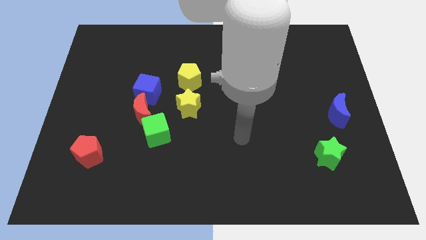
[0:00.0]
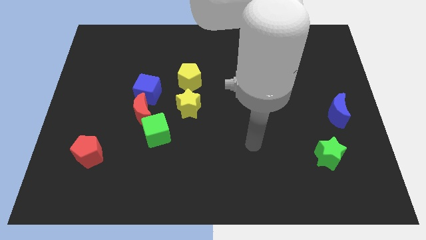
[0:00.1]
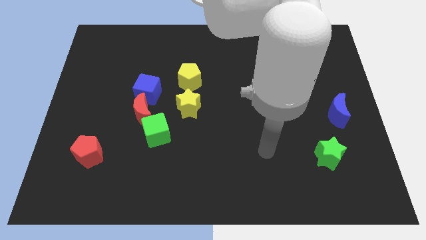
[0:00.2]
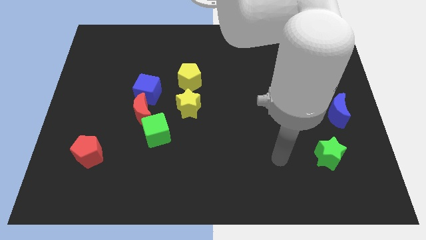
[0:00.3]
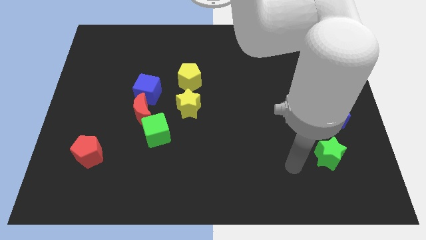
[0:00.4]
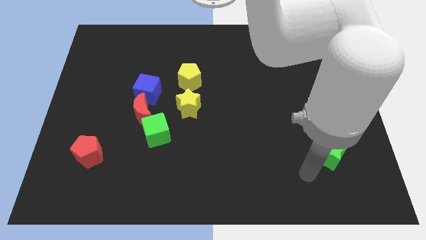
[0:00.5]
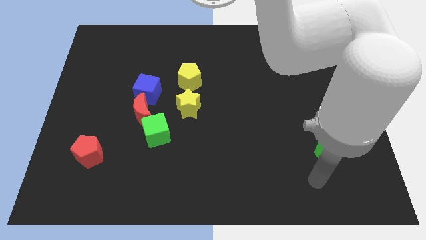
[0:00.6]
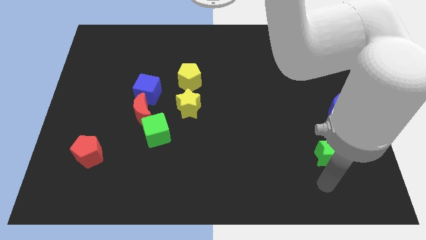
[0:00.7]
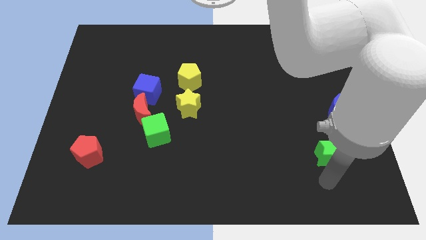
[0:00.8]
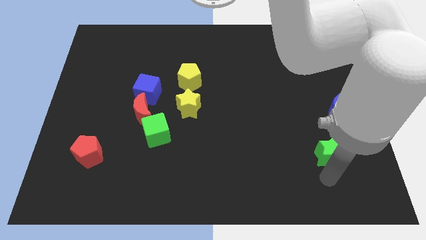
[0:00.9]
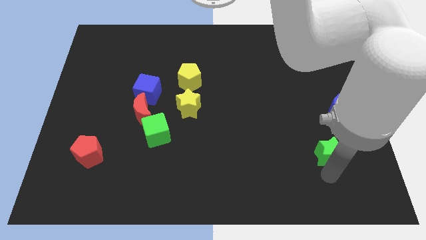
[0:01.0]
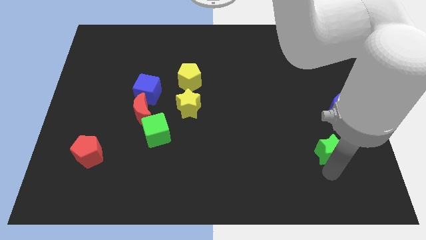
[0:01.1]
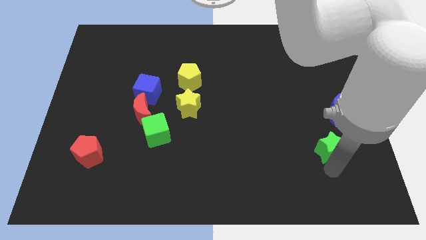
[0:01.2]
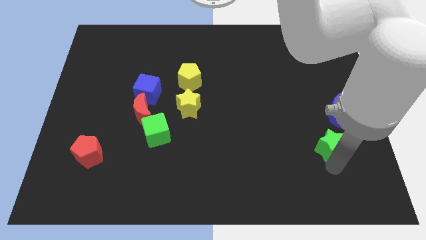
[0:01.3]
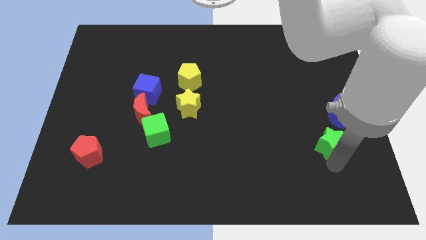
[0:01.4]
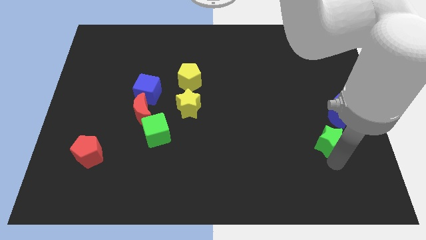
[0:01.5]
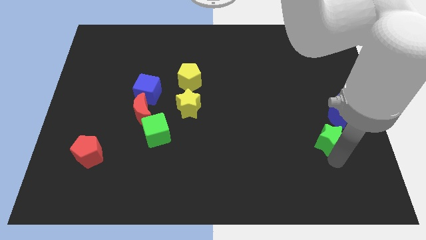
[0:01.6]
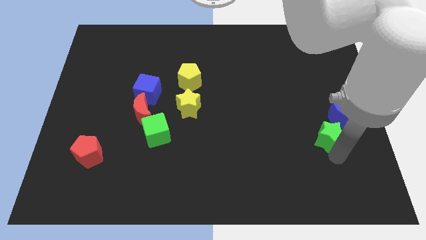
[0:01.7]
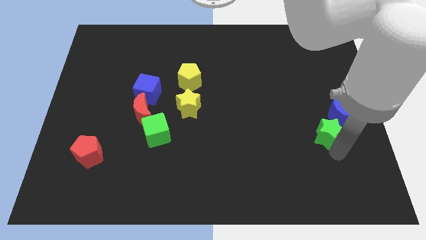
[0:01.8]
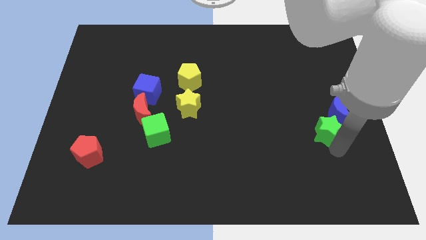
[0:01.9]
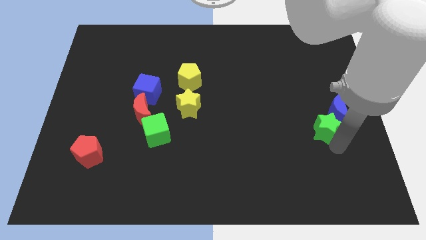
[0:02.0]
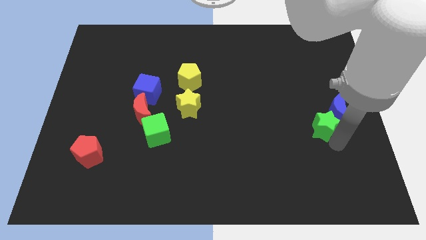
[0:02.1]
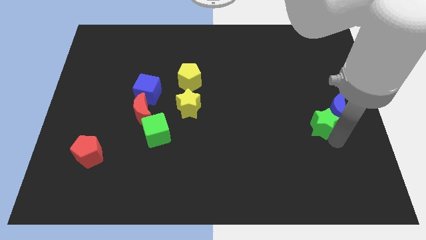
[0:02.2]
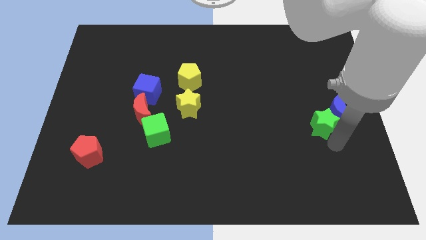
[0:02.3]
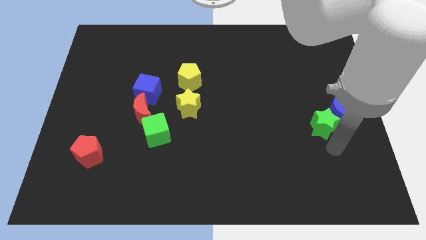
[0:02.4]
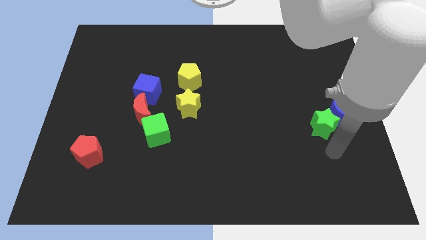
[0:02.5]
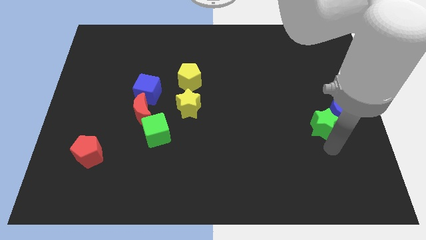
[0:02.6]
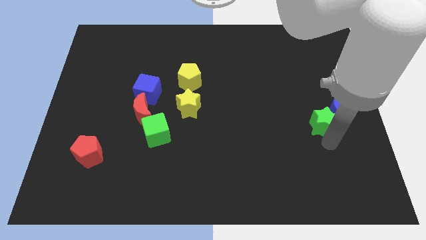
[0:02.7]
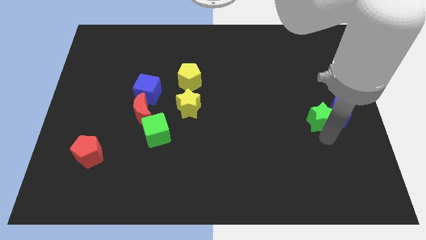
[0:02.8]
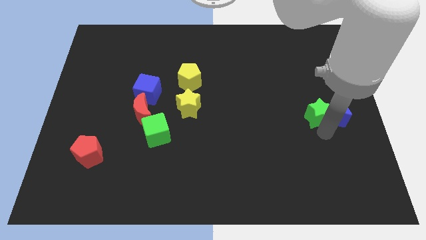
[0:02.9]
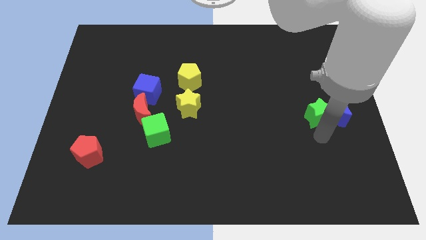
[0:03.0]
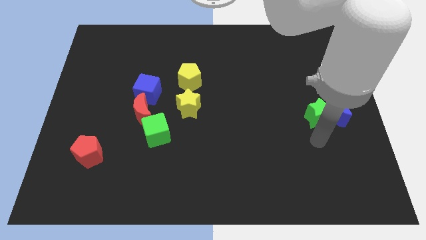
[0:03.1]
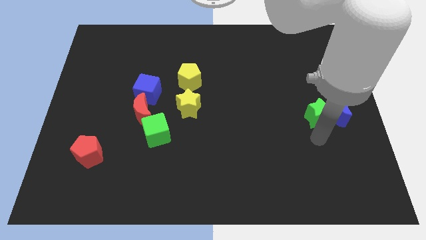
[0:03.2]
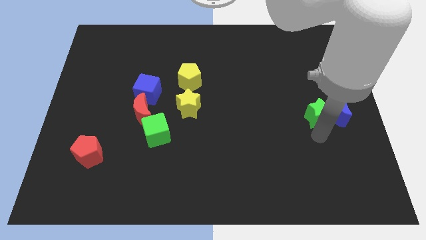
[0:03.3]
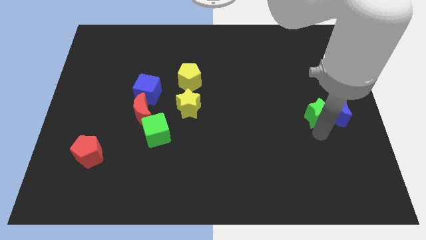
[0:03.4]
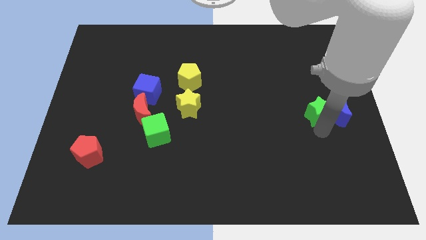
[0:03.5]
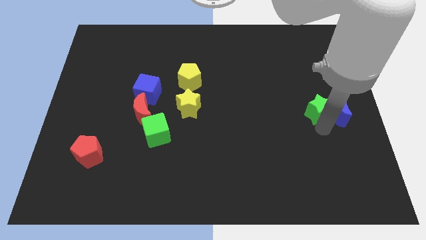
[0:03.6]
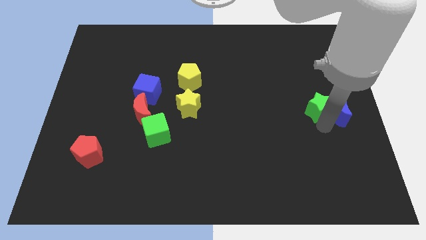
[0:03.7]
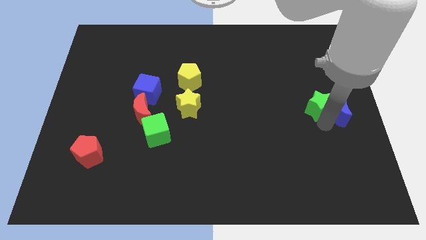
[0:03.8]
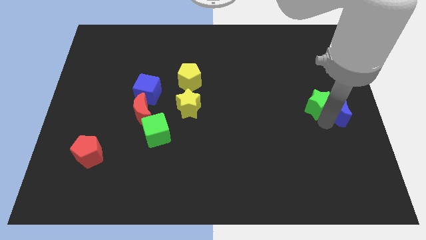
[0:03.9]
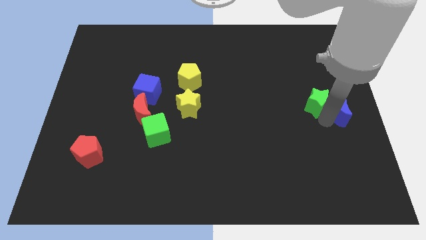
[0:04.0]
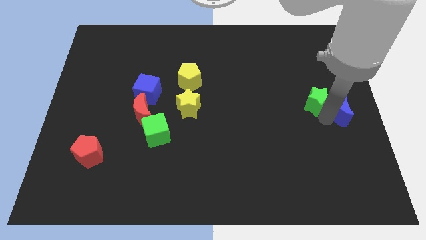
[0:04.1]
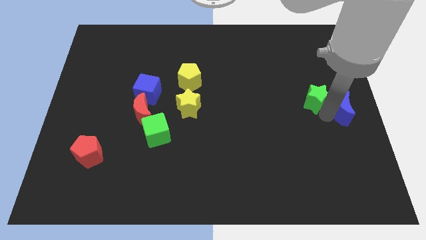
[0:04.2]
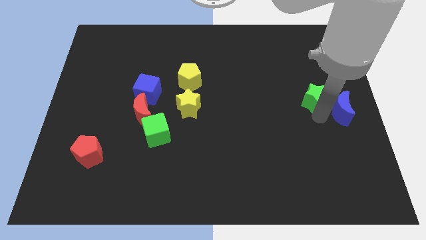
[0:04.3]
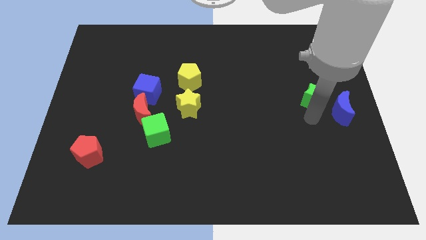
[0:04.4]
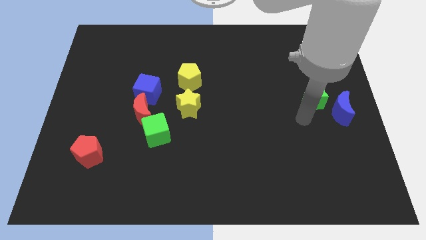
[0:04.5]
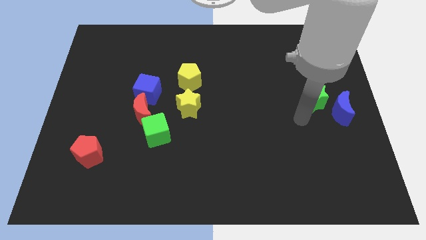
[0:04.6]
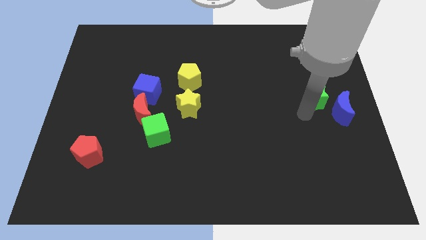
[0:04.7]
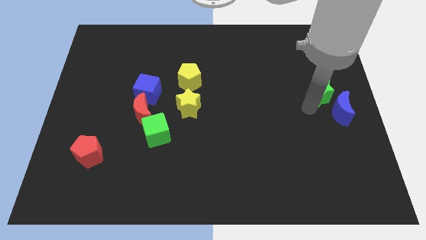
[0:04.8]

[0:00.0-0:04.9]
put the green star above the blue moon

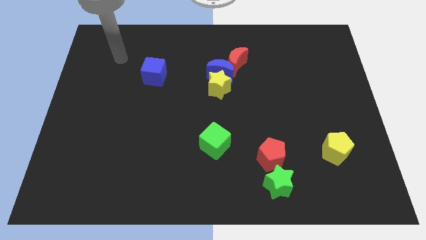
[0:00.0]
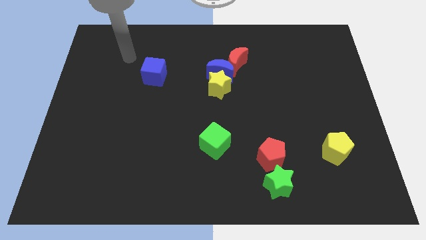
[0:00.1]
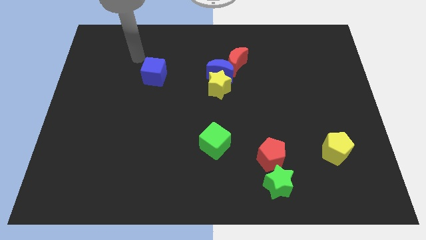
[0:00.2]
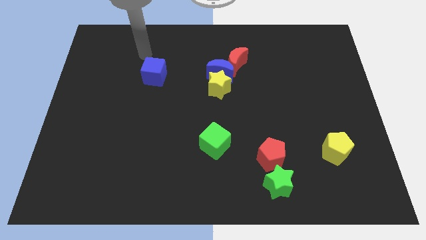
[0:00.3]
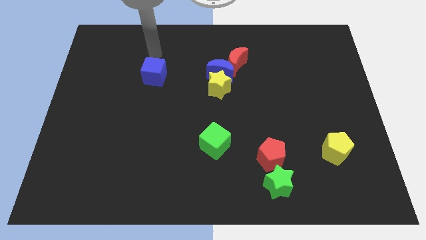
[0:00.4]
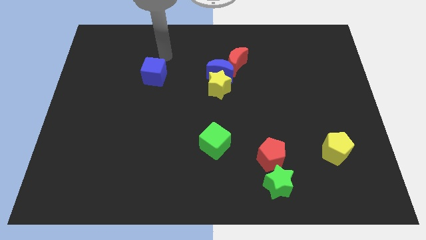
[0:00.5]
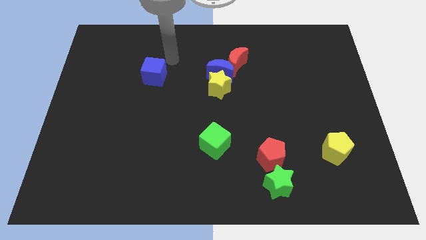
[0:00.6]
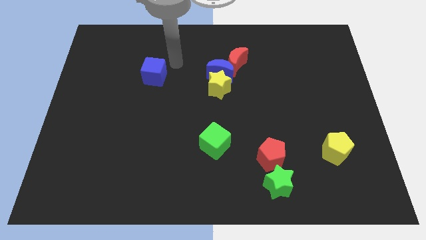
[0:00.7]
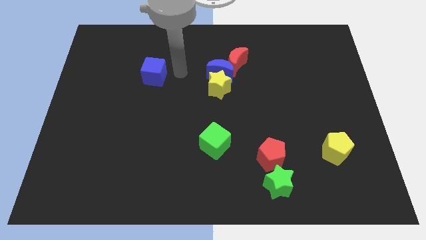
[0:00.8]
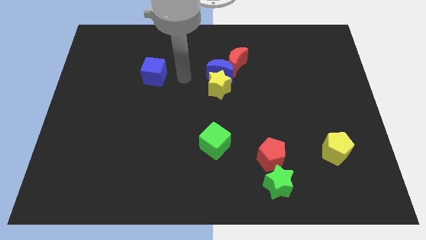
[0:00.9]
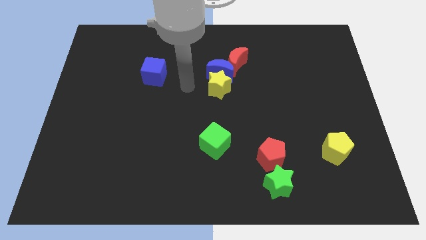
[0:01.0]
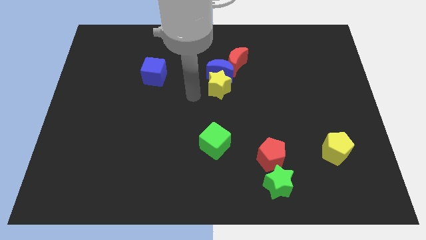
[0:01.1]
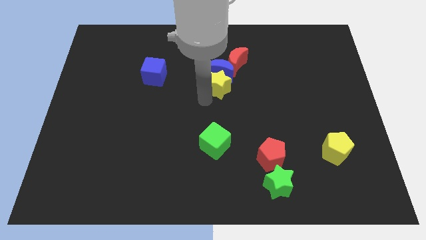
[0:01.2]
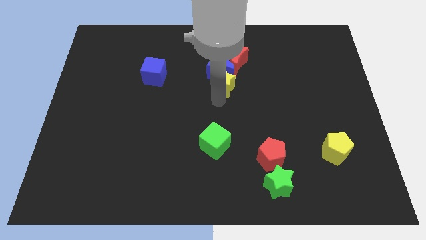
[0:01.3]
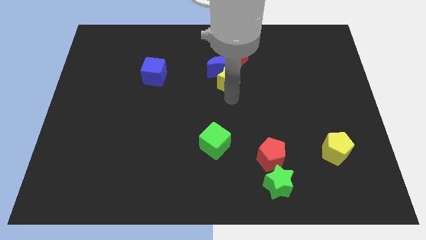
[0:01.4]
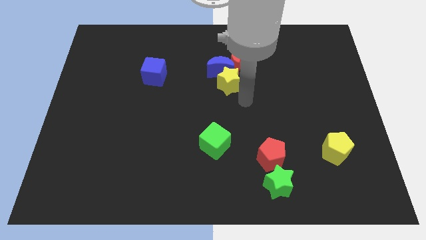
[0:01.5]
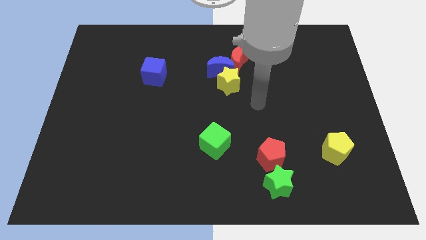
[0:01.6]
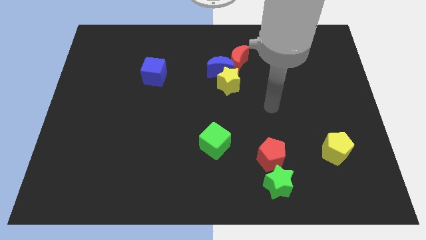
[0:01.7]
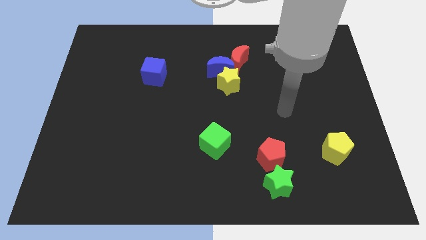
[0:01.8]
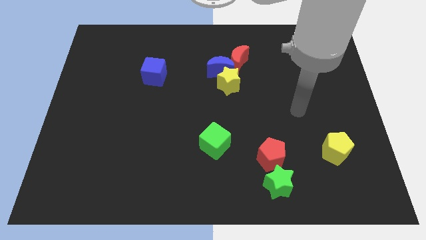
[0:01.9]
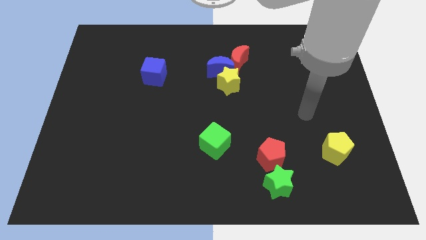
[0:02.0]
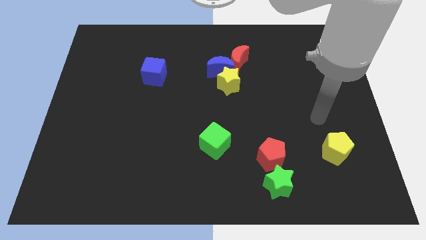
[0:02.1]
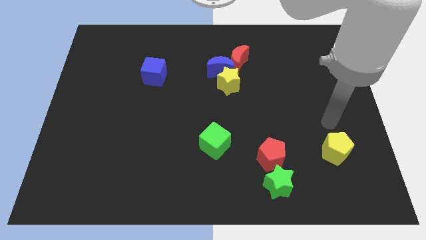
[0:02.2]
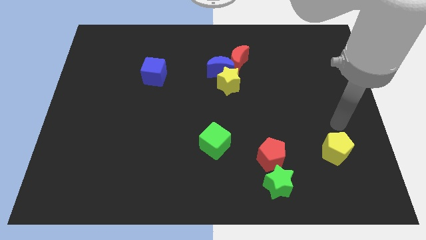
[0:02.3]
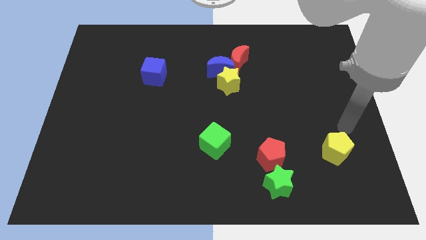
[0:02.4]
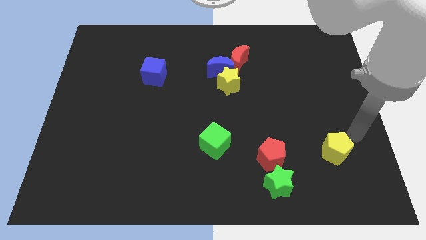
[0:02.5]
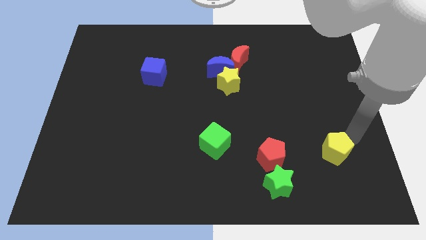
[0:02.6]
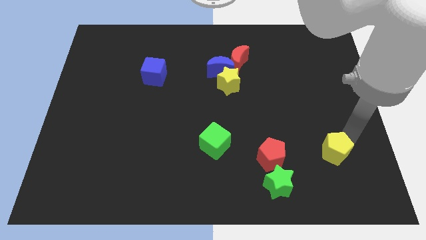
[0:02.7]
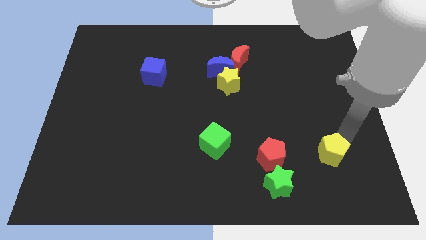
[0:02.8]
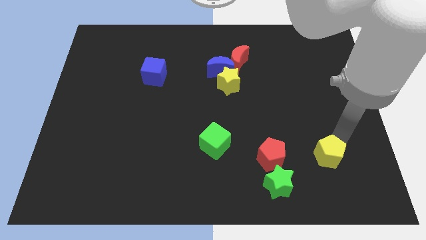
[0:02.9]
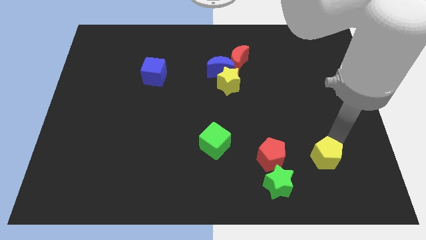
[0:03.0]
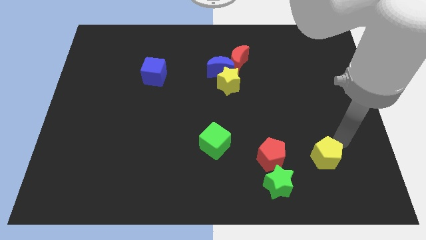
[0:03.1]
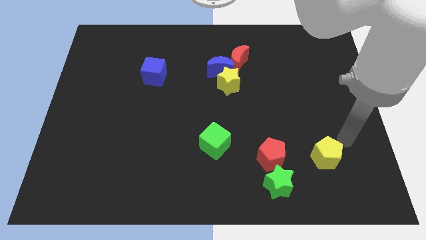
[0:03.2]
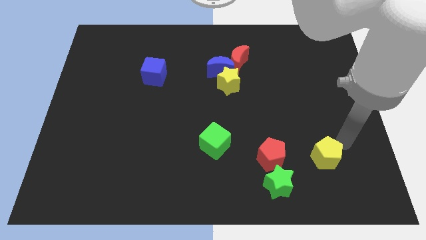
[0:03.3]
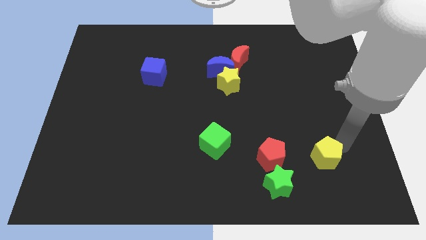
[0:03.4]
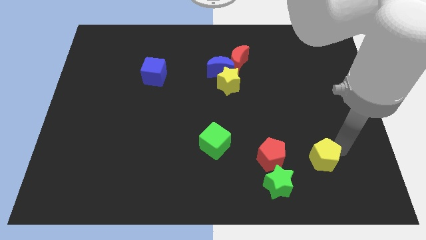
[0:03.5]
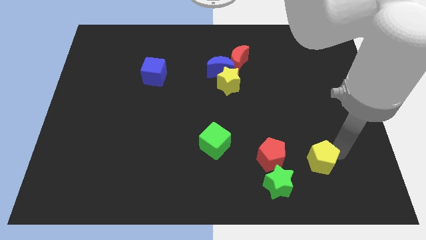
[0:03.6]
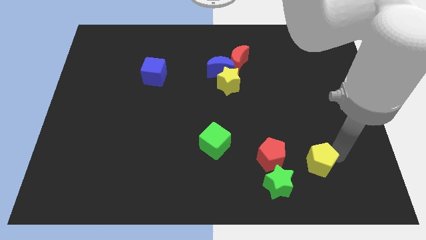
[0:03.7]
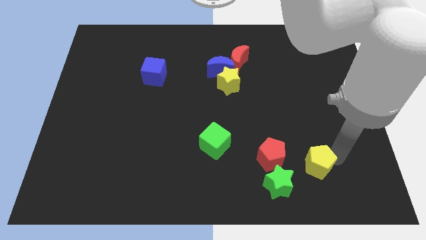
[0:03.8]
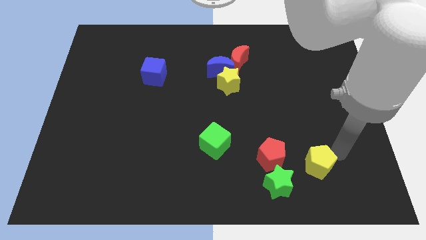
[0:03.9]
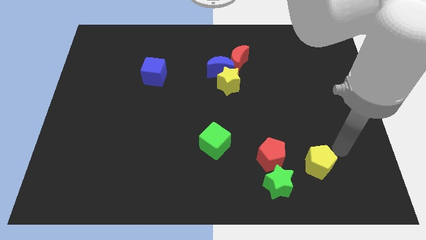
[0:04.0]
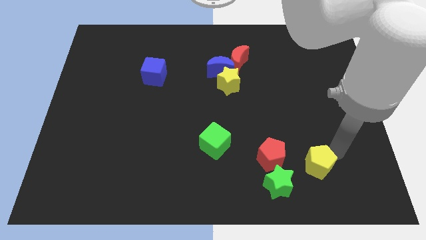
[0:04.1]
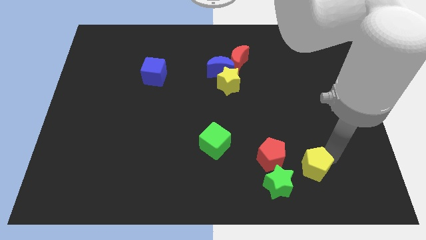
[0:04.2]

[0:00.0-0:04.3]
move the yellow pentagon to the bottom right side of the red pentagon
